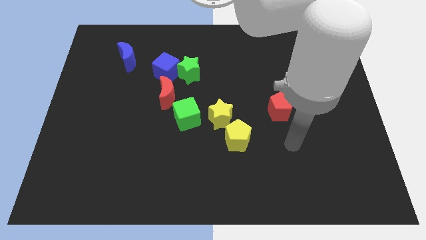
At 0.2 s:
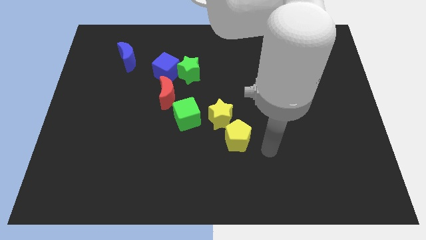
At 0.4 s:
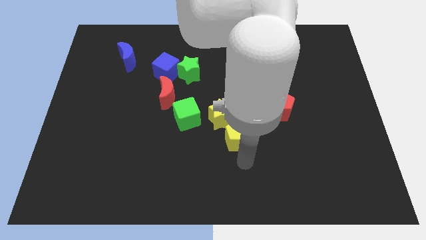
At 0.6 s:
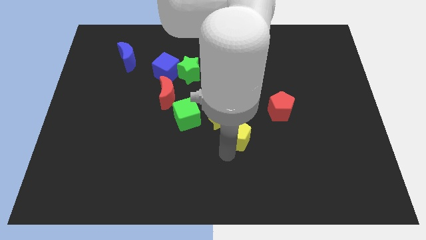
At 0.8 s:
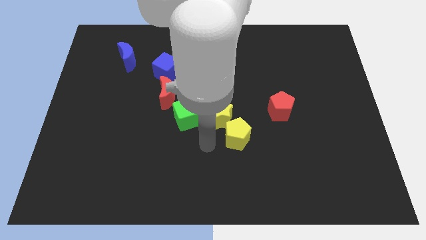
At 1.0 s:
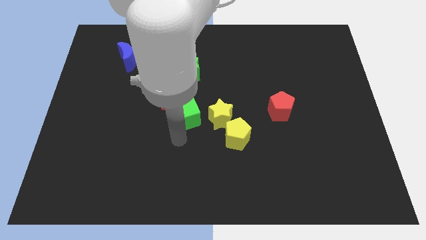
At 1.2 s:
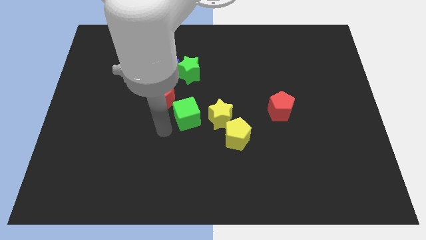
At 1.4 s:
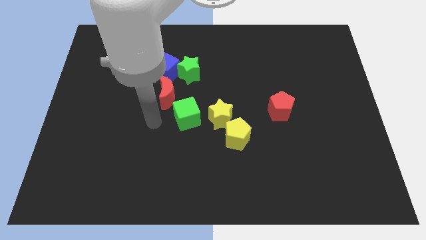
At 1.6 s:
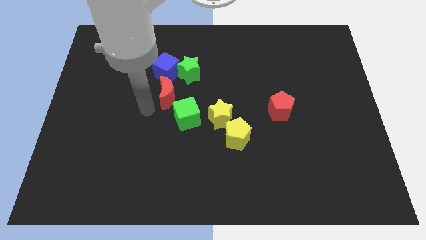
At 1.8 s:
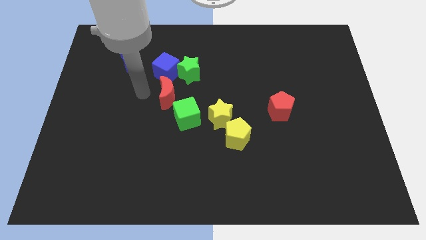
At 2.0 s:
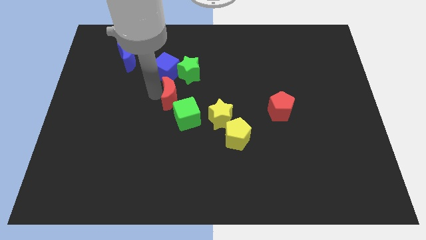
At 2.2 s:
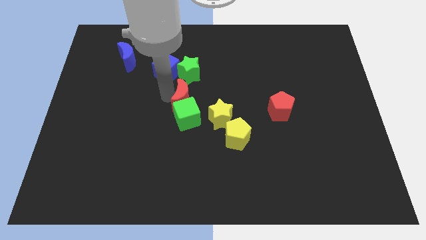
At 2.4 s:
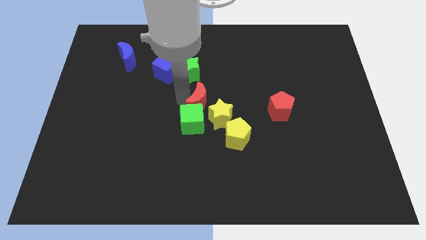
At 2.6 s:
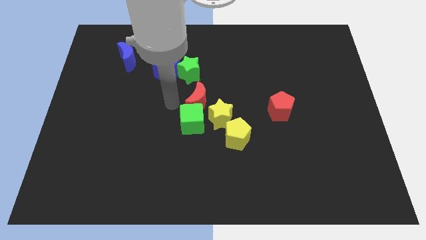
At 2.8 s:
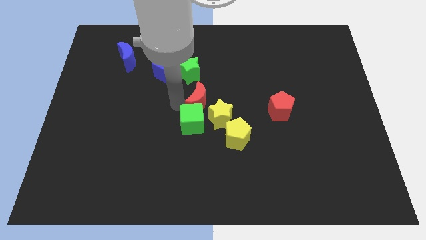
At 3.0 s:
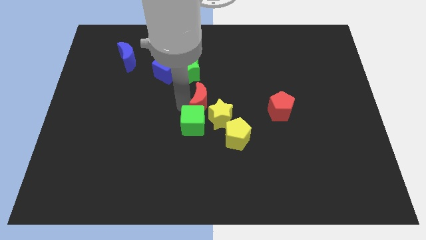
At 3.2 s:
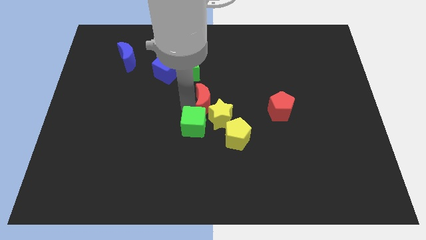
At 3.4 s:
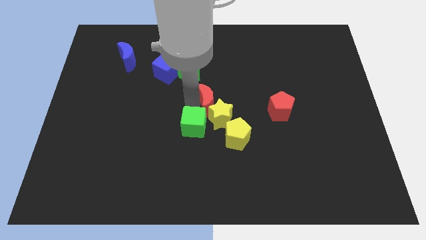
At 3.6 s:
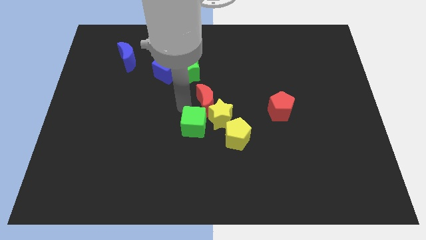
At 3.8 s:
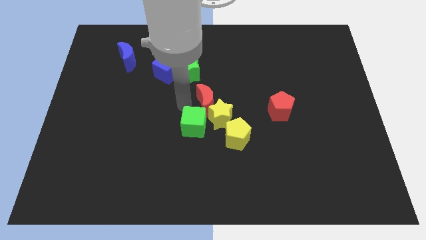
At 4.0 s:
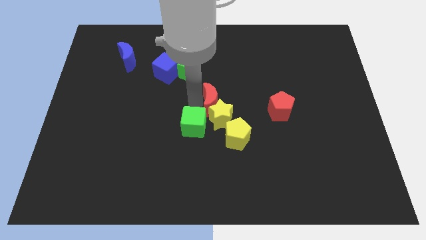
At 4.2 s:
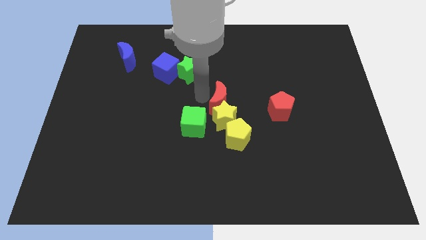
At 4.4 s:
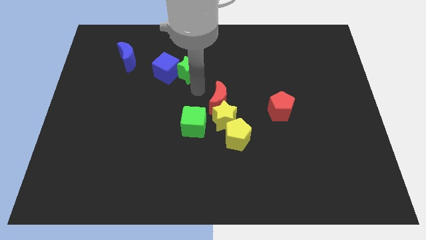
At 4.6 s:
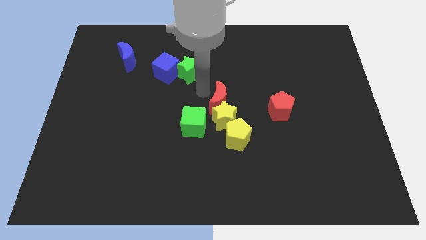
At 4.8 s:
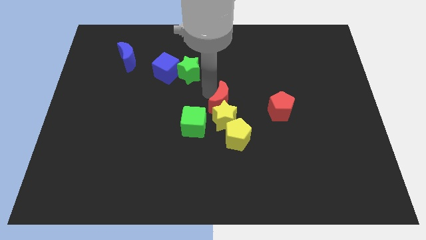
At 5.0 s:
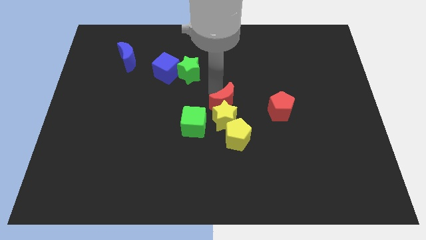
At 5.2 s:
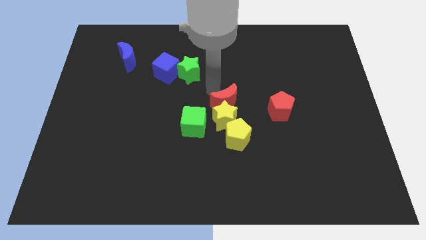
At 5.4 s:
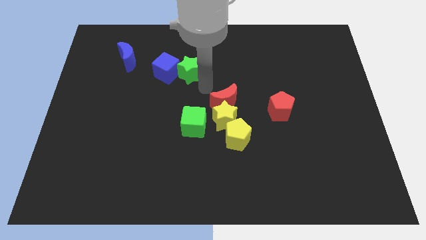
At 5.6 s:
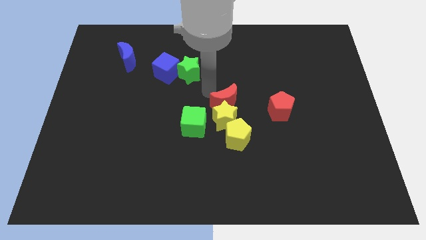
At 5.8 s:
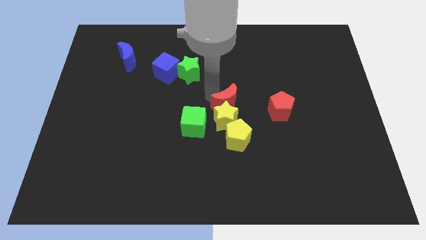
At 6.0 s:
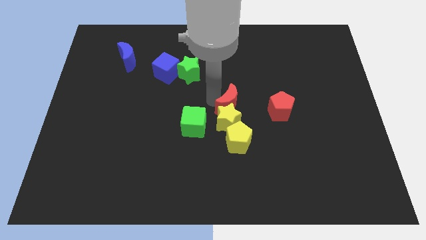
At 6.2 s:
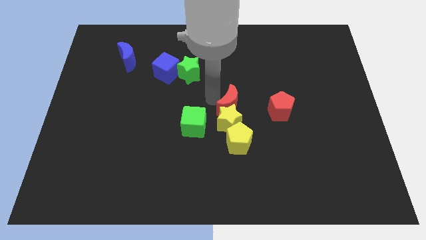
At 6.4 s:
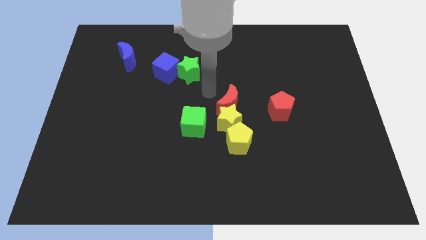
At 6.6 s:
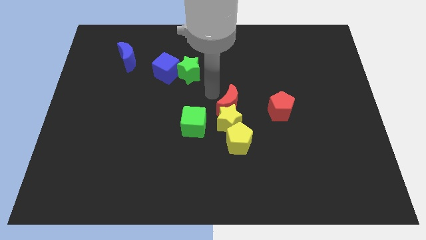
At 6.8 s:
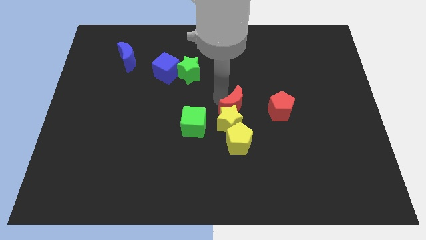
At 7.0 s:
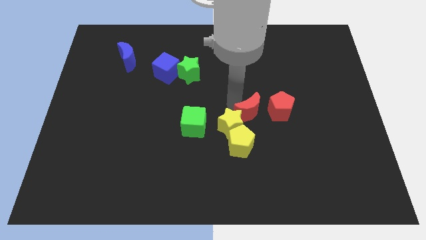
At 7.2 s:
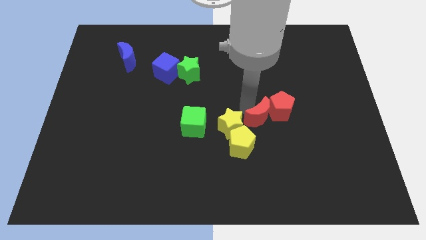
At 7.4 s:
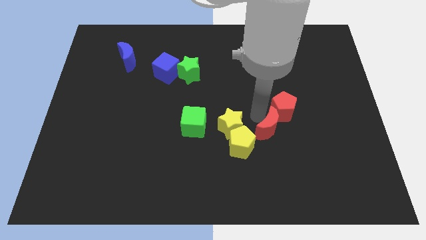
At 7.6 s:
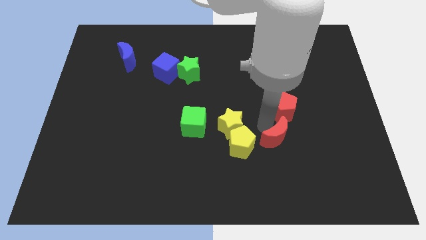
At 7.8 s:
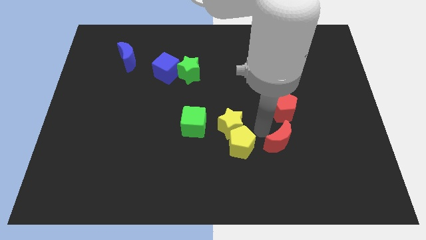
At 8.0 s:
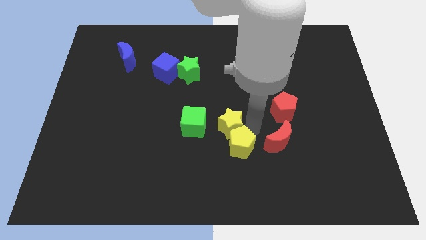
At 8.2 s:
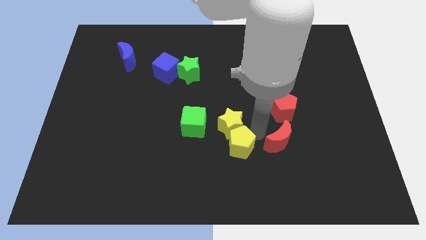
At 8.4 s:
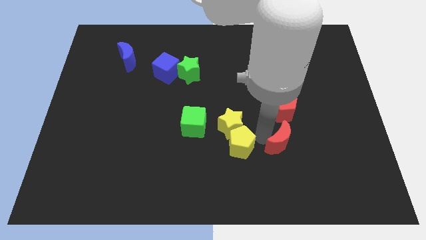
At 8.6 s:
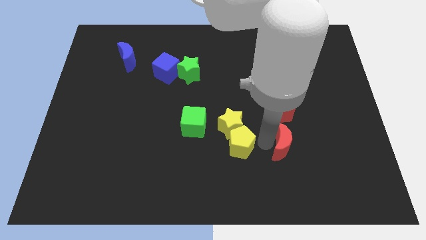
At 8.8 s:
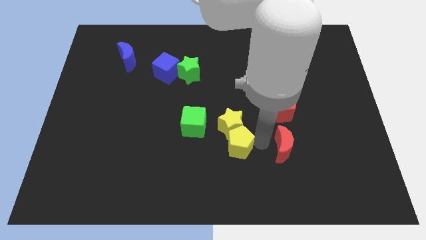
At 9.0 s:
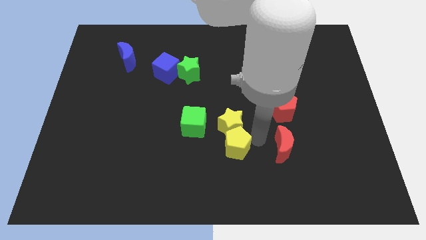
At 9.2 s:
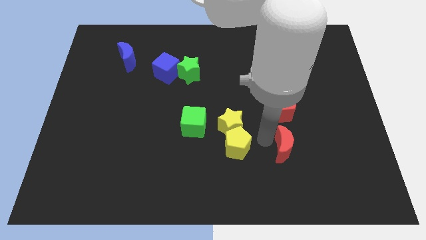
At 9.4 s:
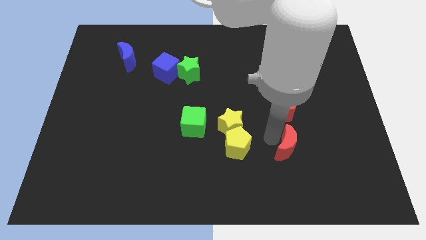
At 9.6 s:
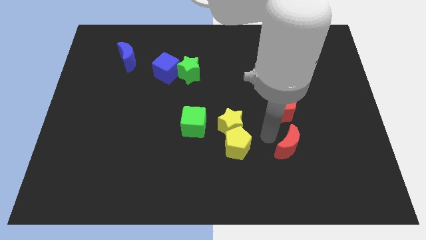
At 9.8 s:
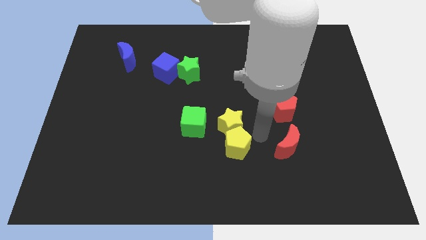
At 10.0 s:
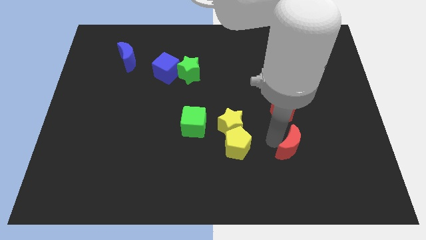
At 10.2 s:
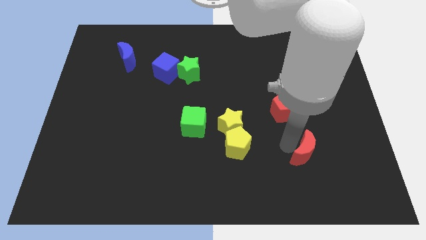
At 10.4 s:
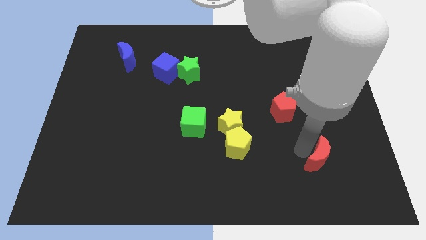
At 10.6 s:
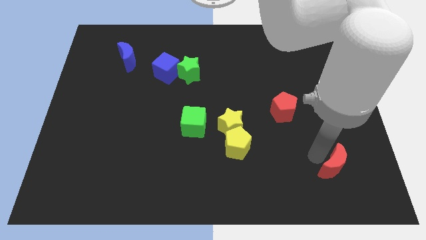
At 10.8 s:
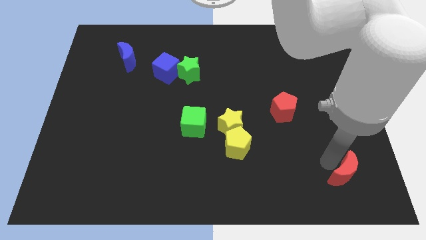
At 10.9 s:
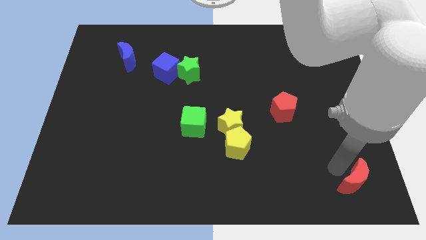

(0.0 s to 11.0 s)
move the red moon to the bottom right corner

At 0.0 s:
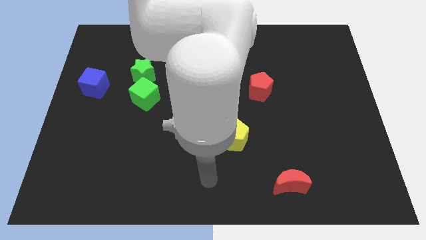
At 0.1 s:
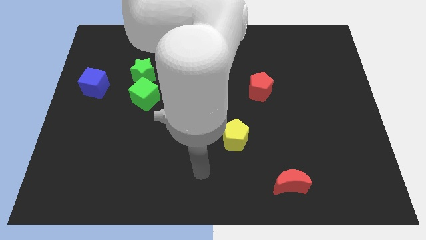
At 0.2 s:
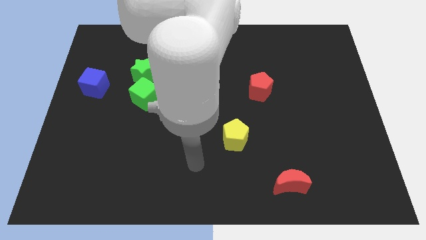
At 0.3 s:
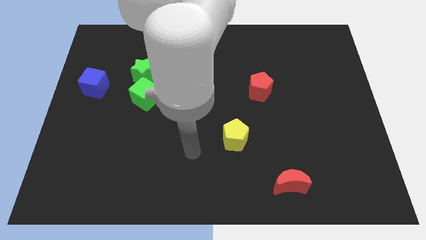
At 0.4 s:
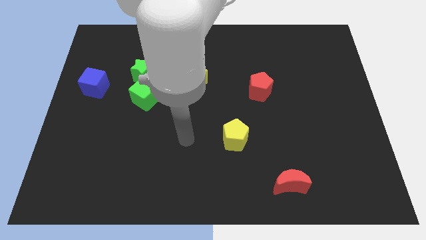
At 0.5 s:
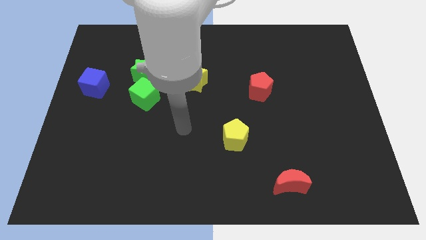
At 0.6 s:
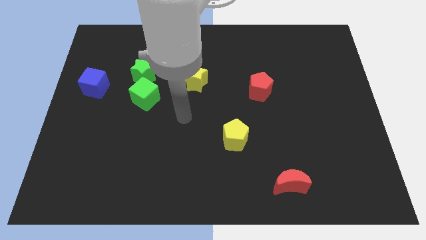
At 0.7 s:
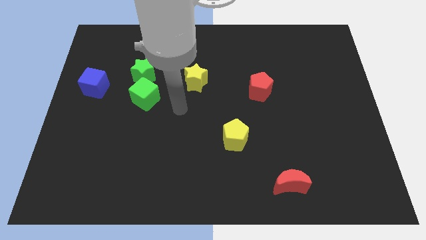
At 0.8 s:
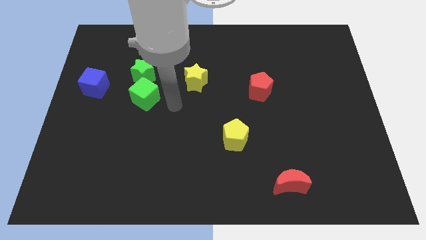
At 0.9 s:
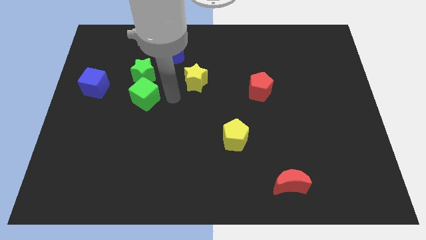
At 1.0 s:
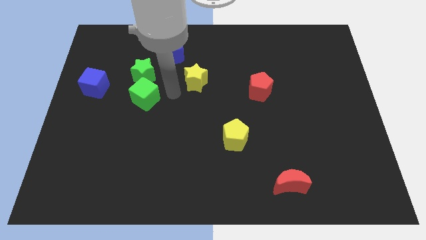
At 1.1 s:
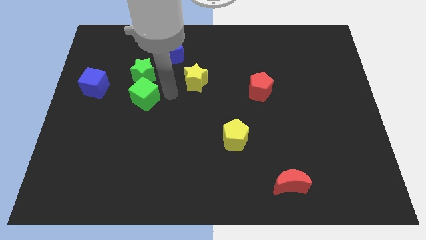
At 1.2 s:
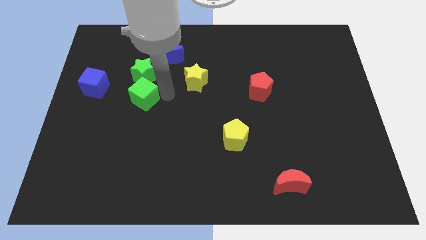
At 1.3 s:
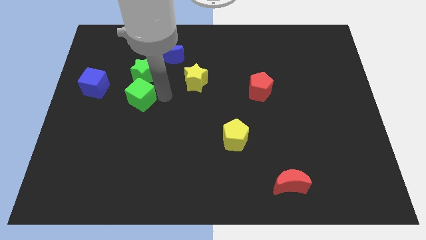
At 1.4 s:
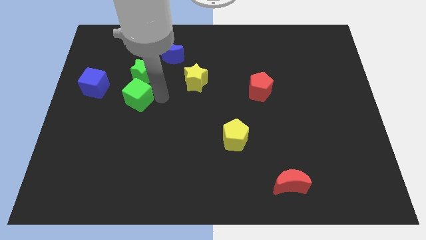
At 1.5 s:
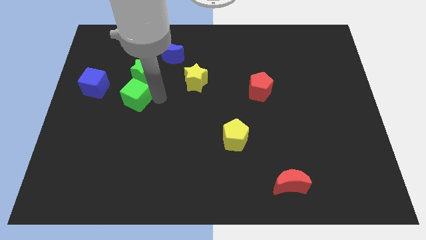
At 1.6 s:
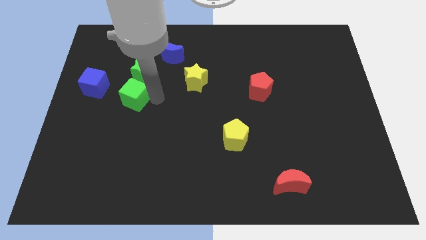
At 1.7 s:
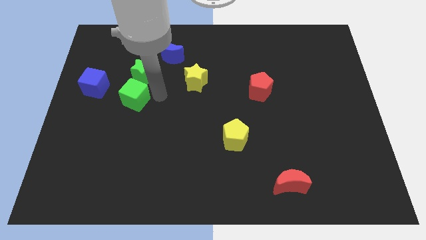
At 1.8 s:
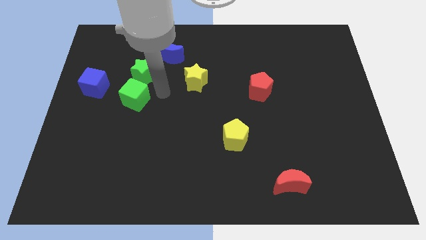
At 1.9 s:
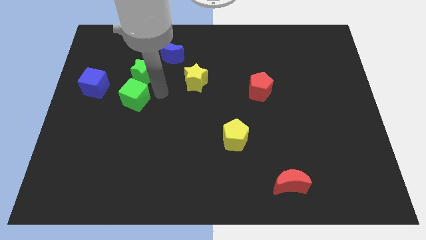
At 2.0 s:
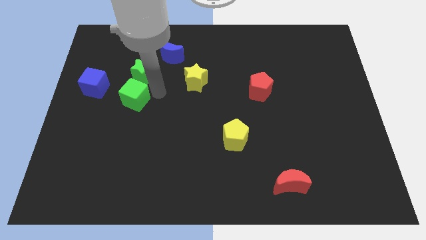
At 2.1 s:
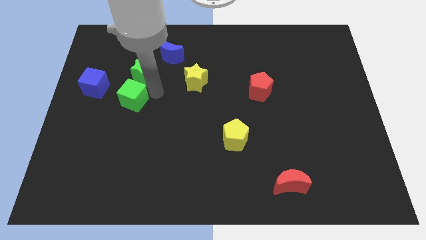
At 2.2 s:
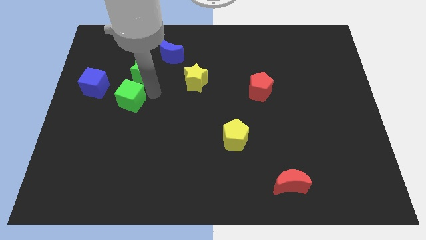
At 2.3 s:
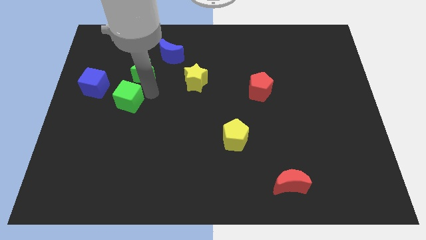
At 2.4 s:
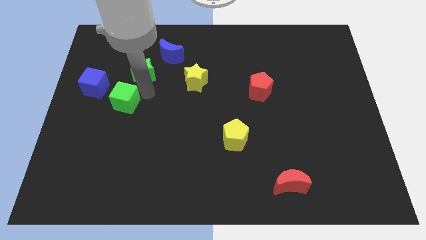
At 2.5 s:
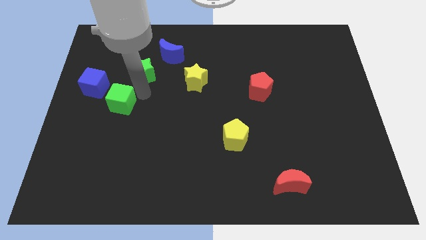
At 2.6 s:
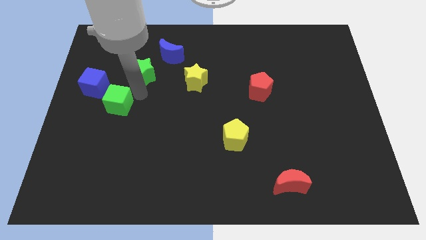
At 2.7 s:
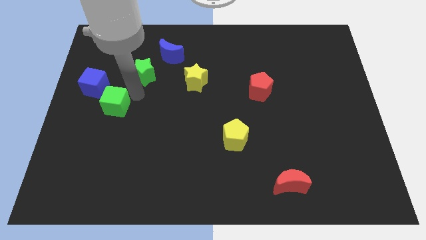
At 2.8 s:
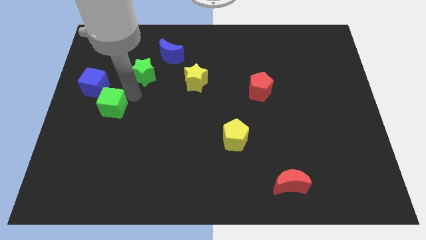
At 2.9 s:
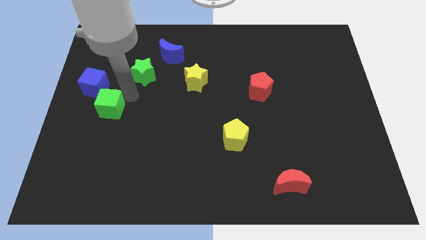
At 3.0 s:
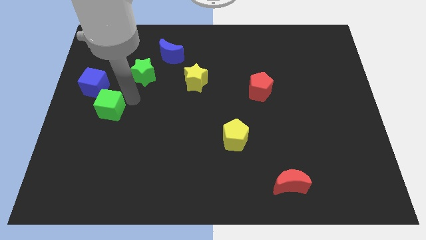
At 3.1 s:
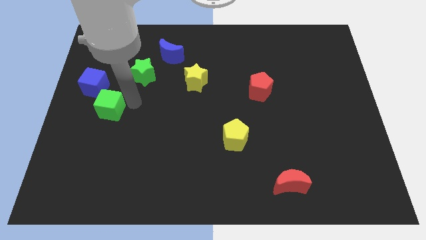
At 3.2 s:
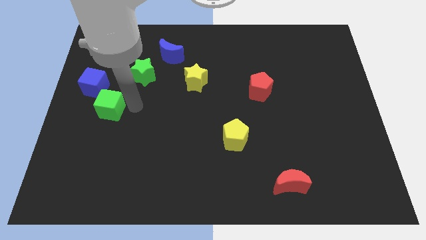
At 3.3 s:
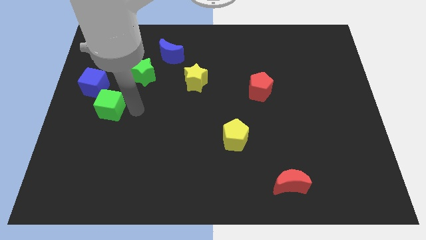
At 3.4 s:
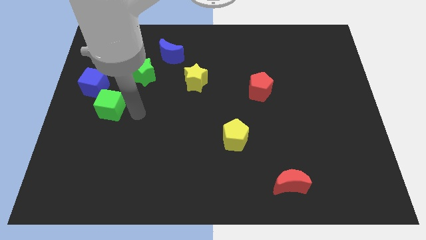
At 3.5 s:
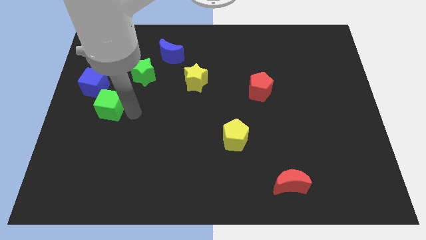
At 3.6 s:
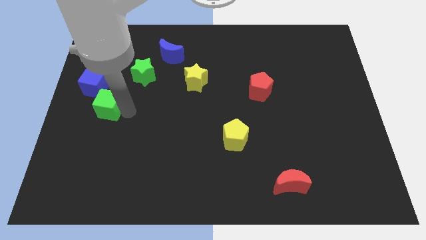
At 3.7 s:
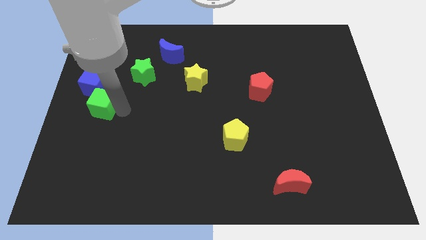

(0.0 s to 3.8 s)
push the green cube to the left side of the board
